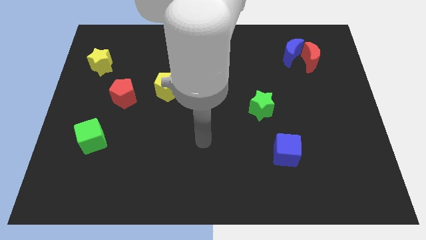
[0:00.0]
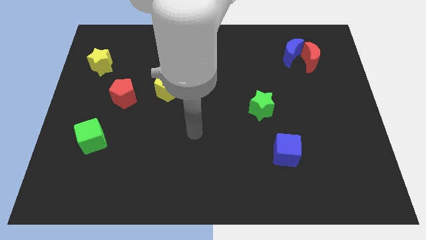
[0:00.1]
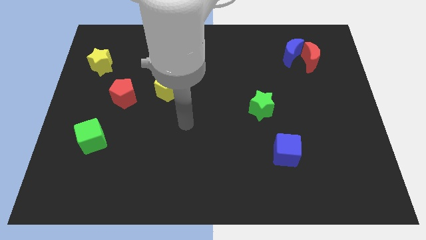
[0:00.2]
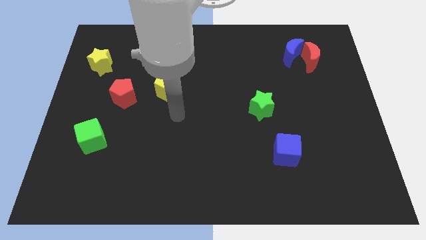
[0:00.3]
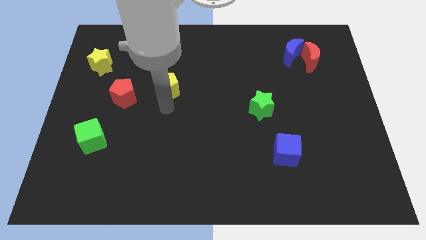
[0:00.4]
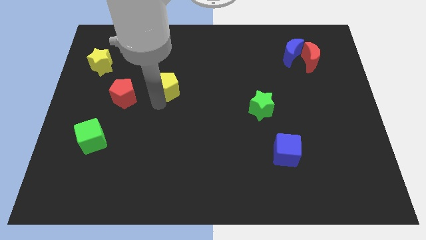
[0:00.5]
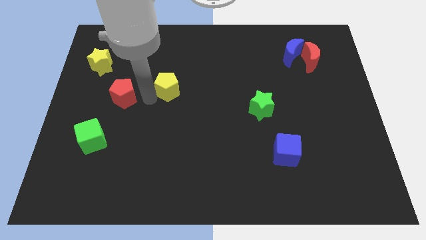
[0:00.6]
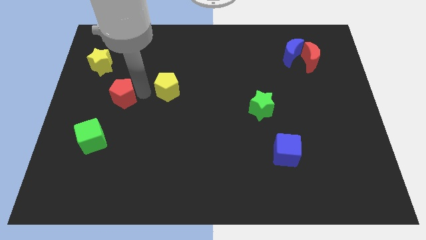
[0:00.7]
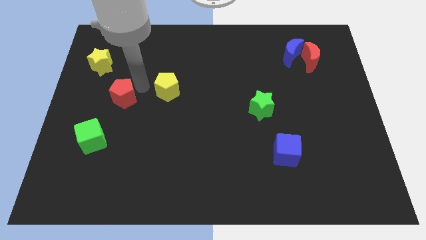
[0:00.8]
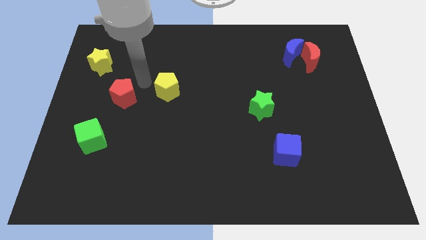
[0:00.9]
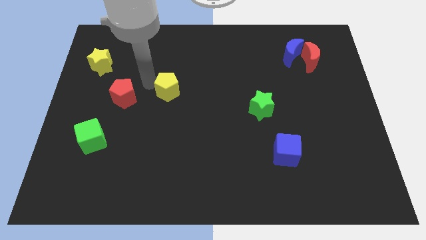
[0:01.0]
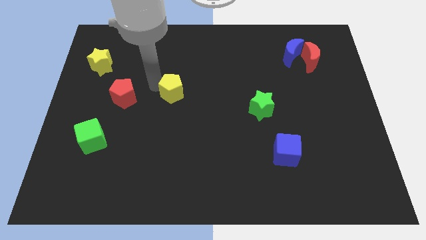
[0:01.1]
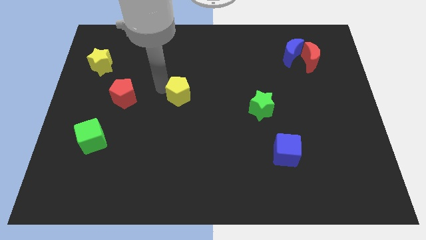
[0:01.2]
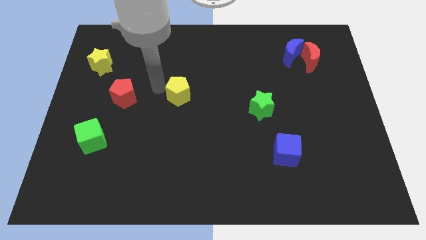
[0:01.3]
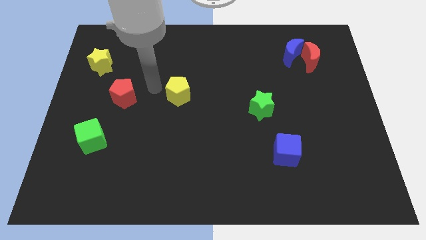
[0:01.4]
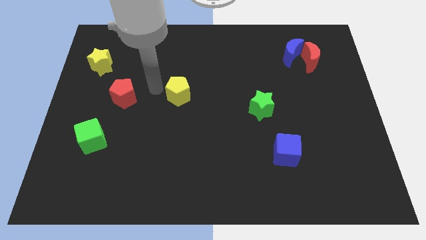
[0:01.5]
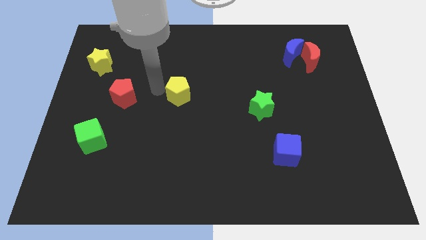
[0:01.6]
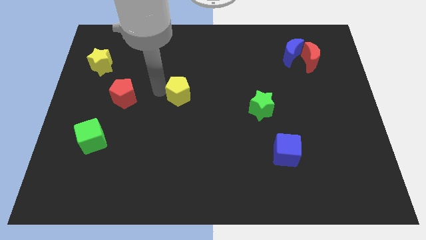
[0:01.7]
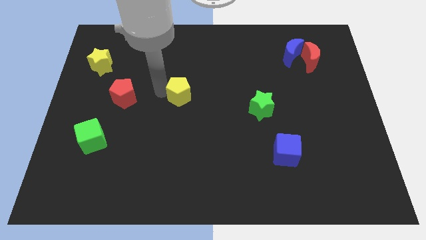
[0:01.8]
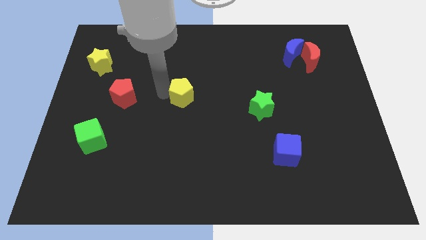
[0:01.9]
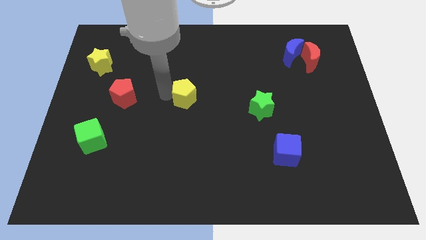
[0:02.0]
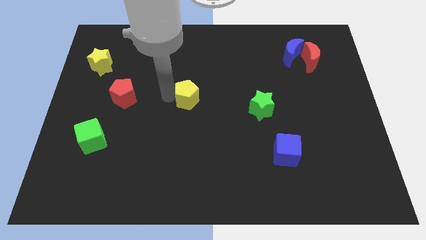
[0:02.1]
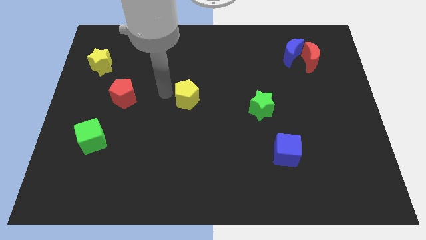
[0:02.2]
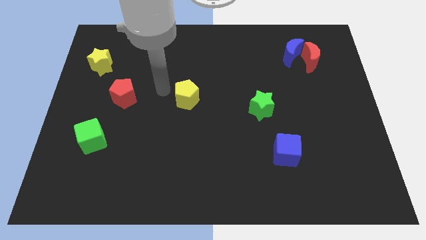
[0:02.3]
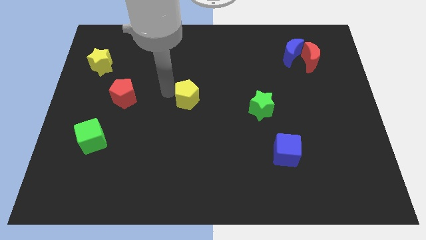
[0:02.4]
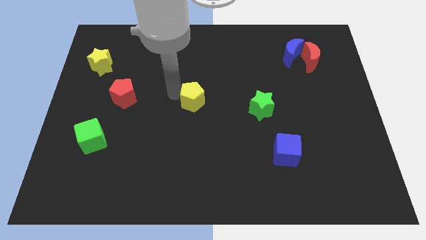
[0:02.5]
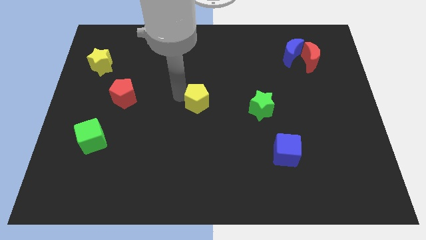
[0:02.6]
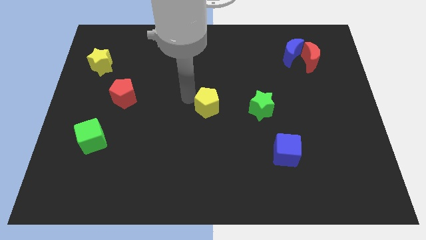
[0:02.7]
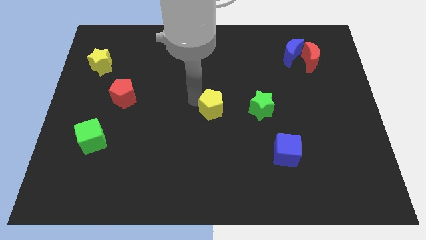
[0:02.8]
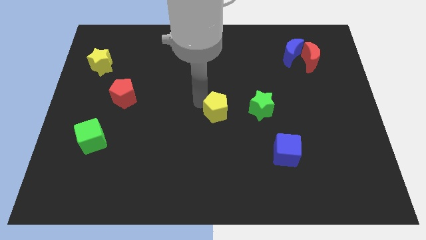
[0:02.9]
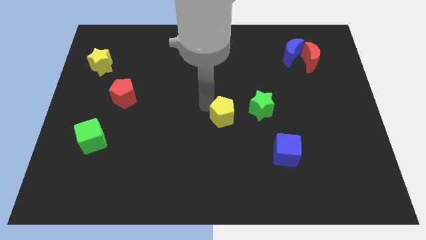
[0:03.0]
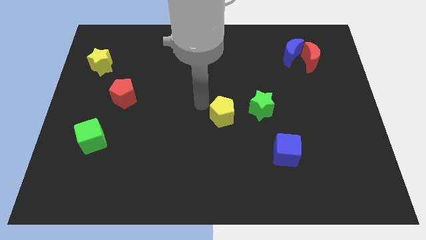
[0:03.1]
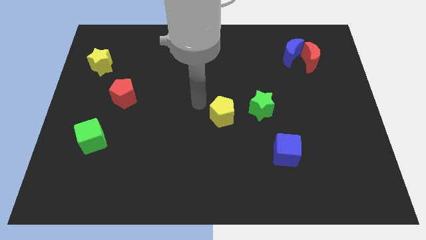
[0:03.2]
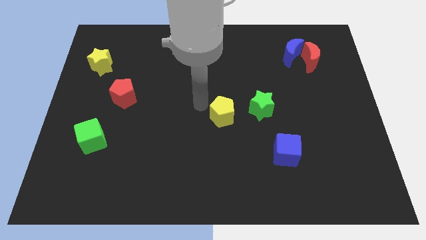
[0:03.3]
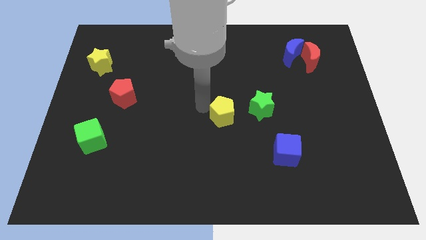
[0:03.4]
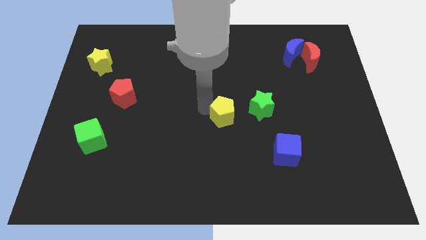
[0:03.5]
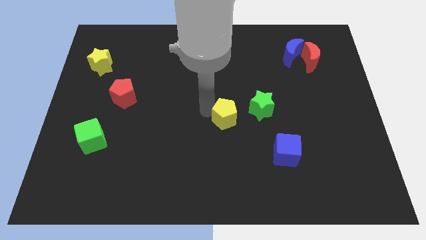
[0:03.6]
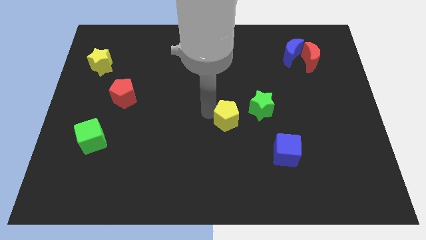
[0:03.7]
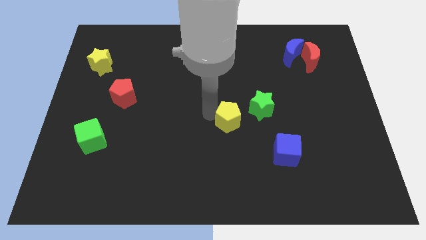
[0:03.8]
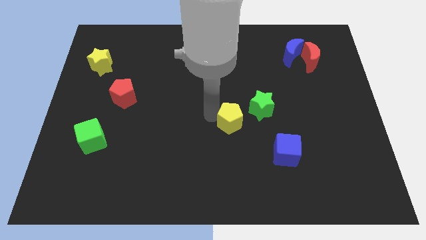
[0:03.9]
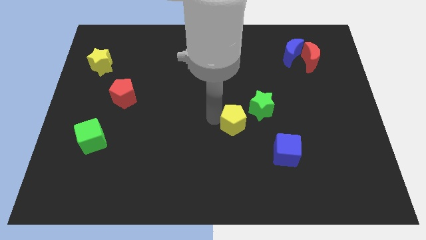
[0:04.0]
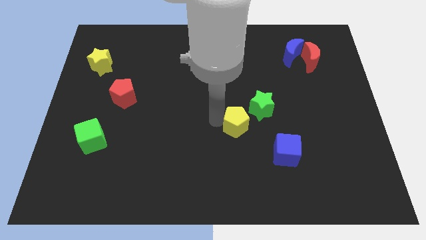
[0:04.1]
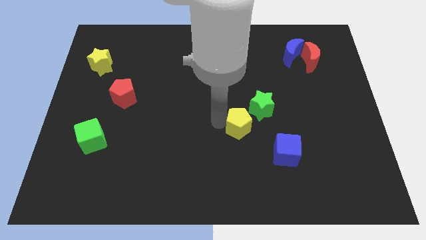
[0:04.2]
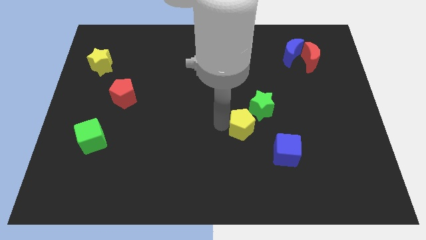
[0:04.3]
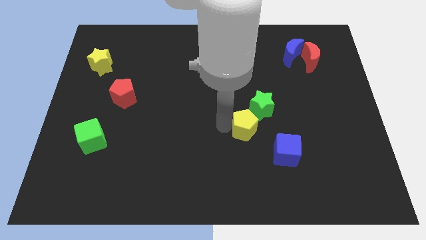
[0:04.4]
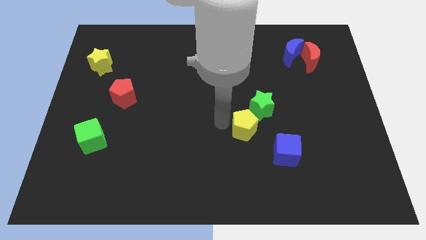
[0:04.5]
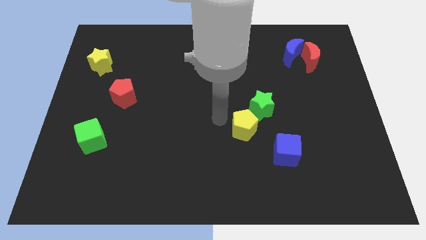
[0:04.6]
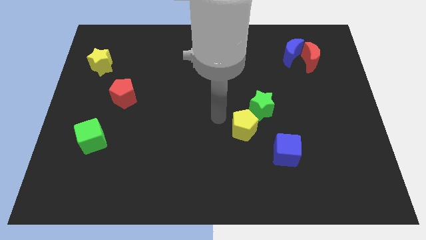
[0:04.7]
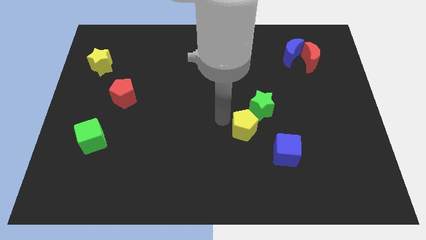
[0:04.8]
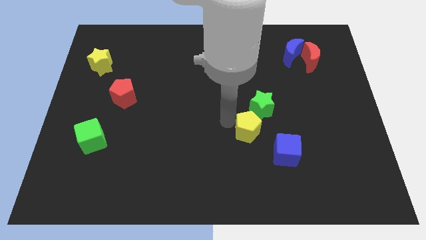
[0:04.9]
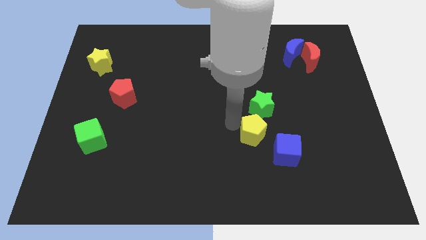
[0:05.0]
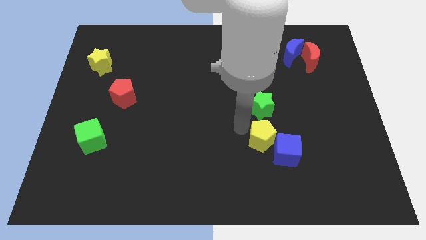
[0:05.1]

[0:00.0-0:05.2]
push the yellow pentagon close to the blue cube

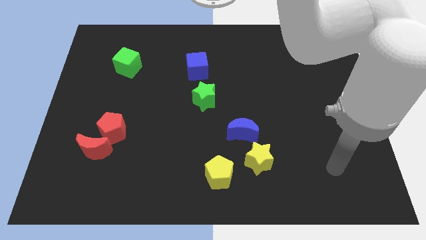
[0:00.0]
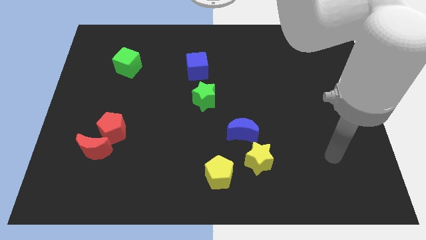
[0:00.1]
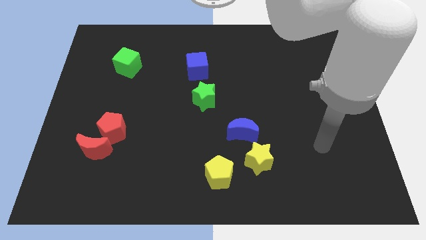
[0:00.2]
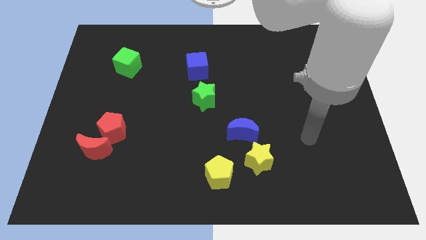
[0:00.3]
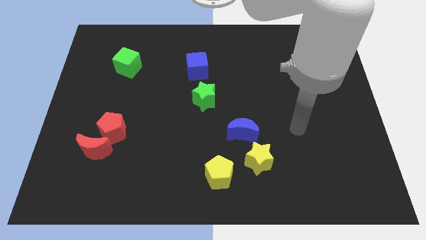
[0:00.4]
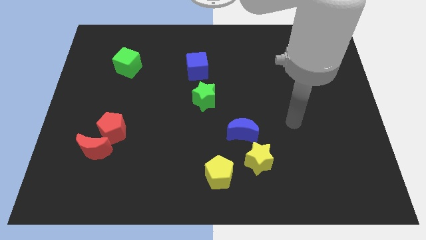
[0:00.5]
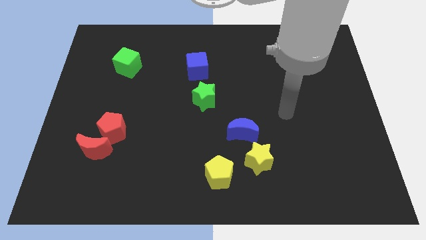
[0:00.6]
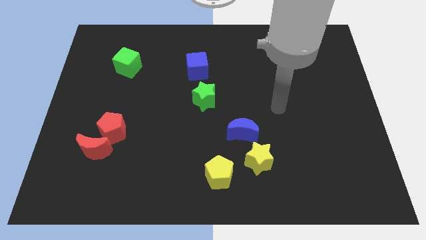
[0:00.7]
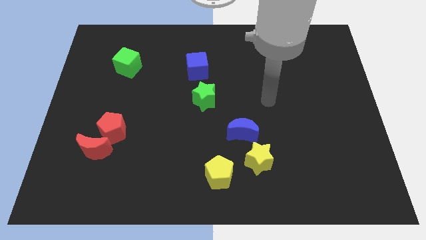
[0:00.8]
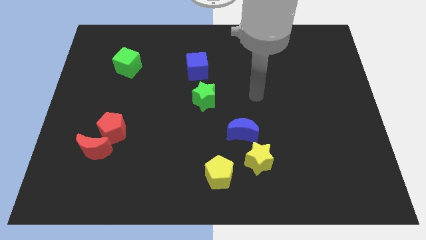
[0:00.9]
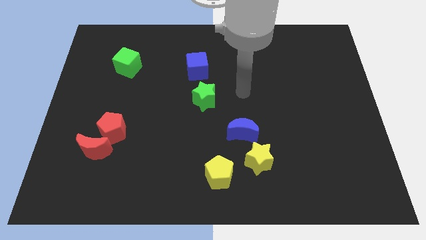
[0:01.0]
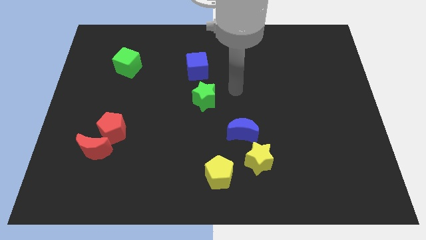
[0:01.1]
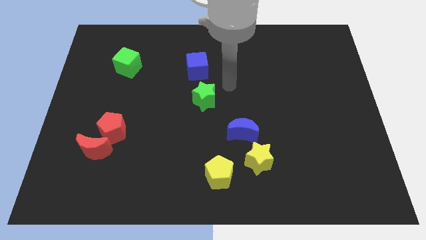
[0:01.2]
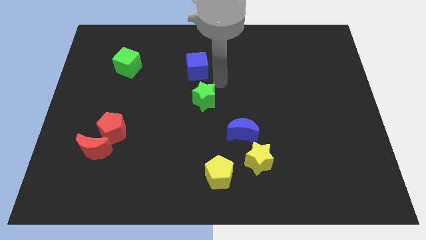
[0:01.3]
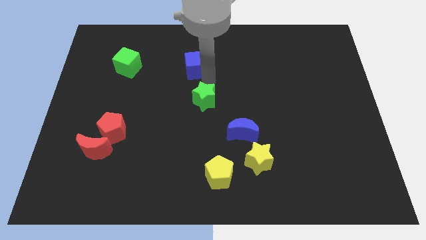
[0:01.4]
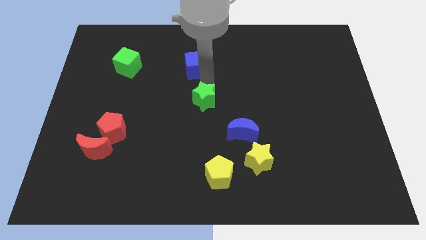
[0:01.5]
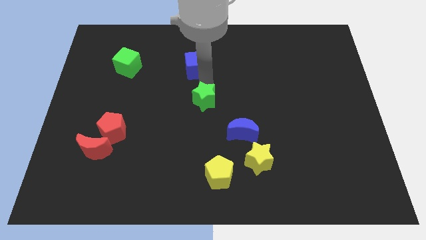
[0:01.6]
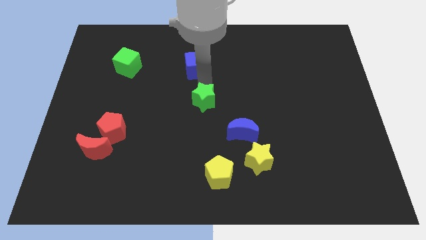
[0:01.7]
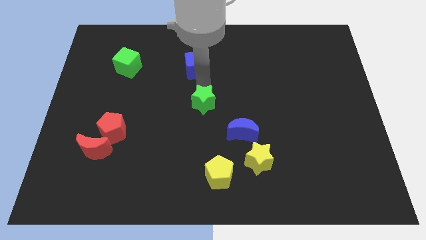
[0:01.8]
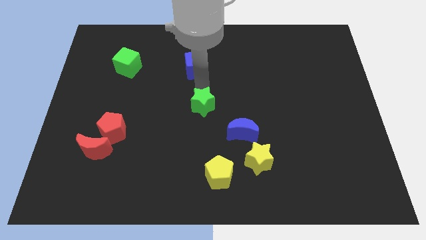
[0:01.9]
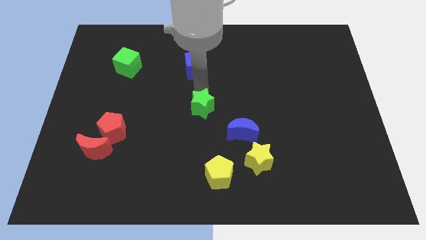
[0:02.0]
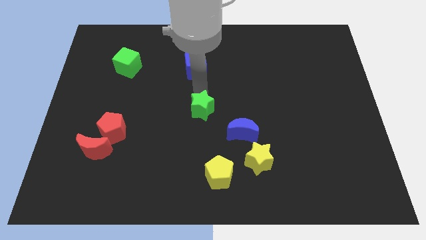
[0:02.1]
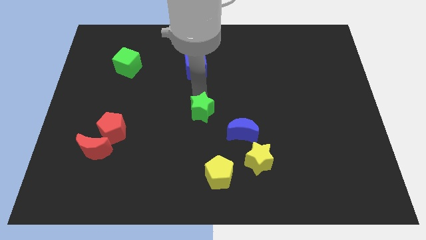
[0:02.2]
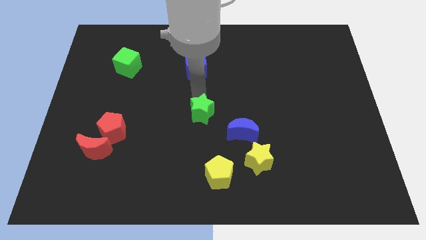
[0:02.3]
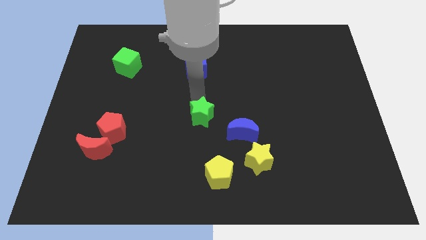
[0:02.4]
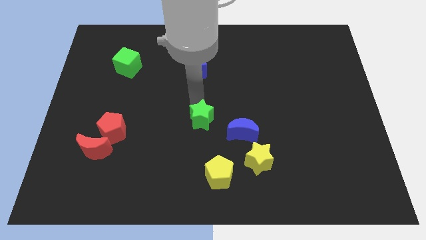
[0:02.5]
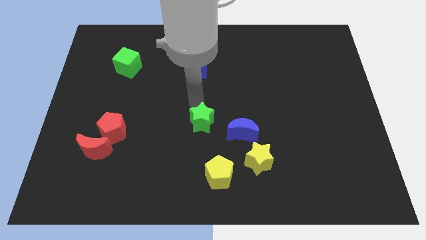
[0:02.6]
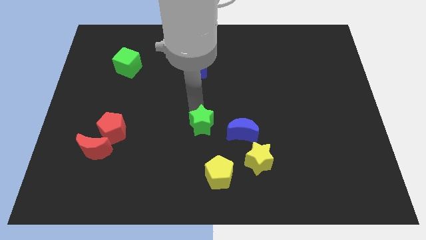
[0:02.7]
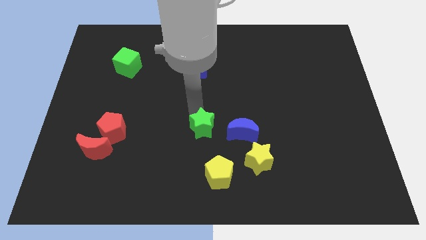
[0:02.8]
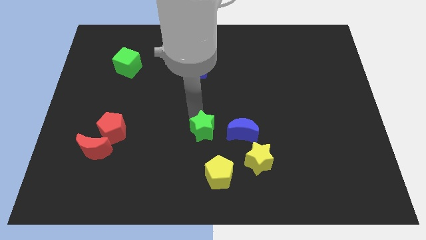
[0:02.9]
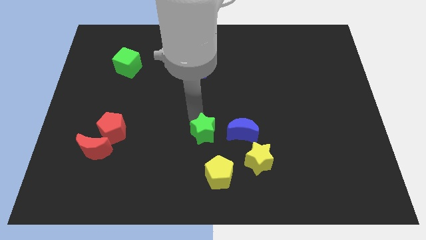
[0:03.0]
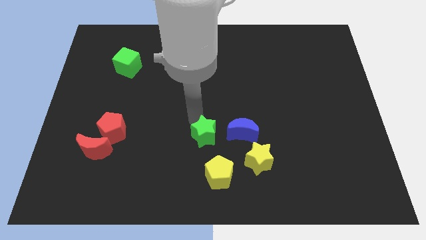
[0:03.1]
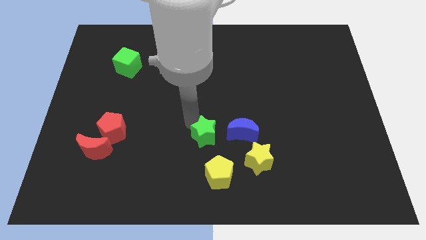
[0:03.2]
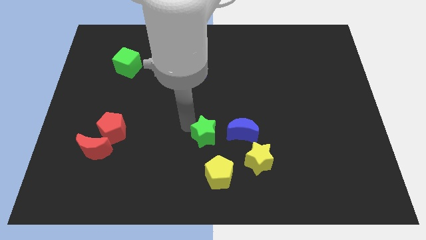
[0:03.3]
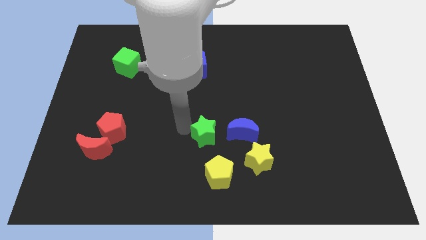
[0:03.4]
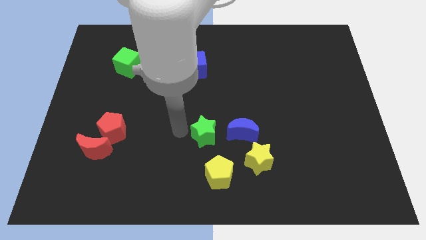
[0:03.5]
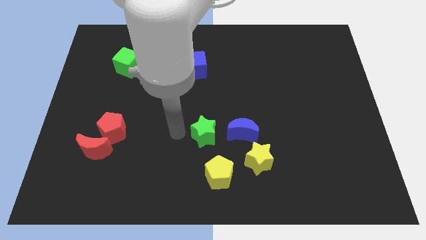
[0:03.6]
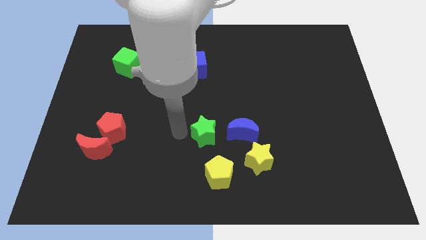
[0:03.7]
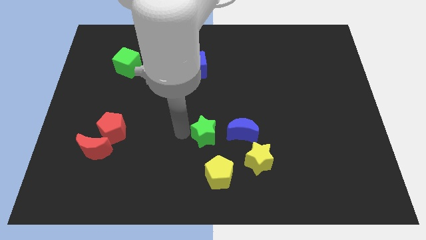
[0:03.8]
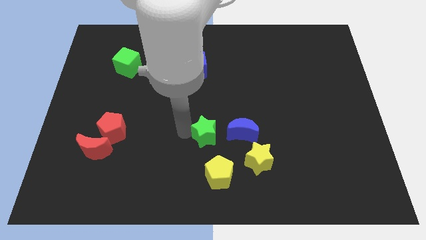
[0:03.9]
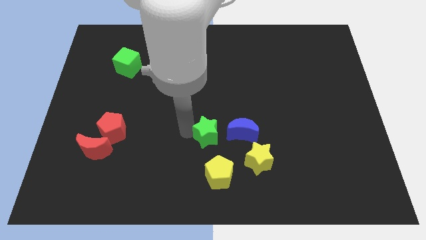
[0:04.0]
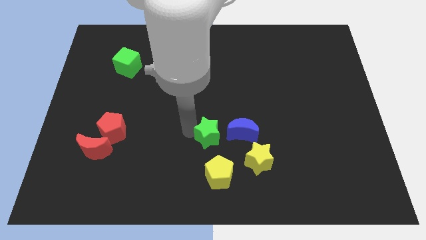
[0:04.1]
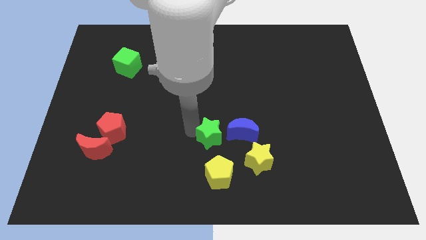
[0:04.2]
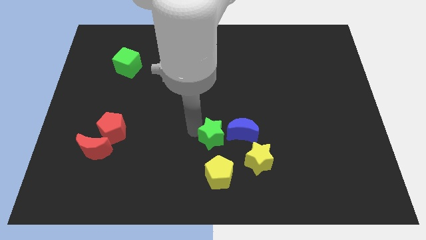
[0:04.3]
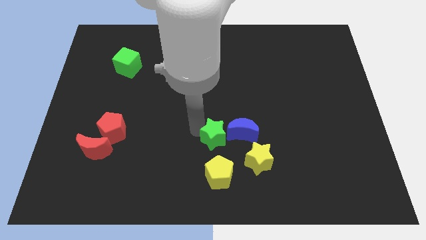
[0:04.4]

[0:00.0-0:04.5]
move the green star to the blue moon
